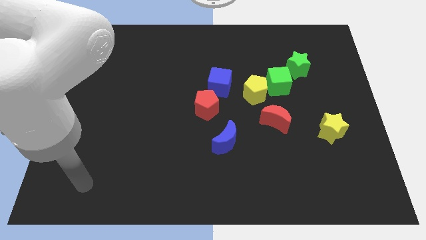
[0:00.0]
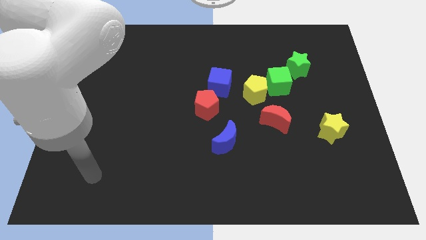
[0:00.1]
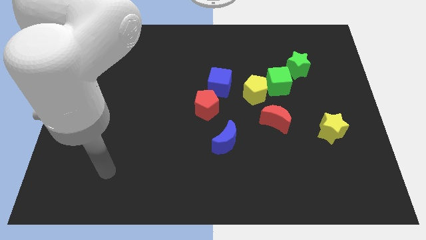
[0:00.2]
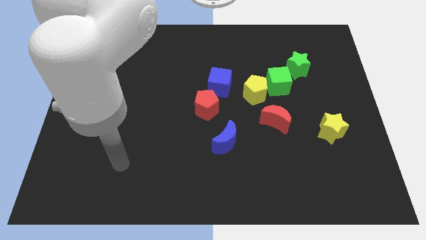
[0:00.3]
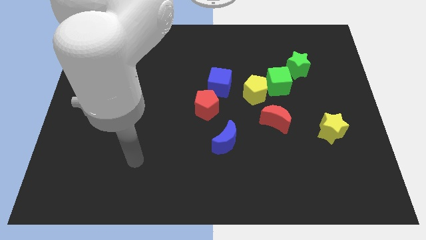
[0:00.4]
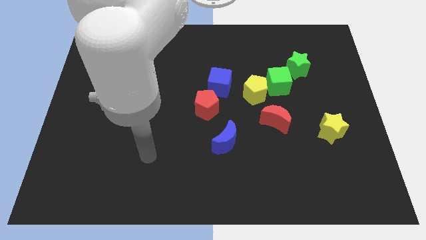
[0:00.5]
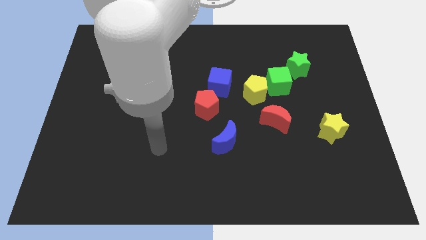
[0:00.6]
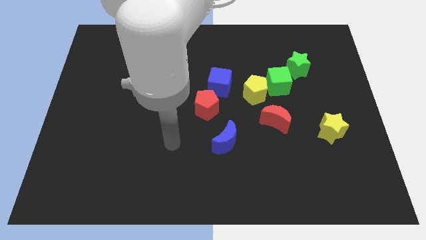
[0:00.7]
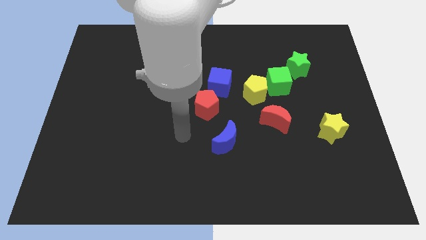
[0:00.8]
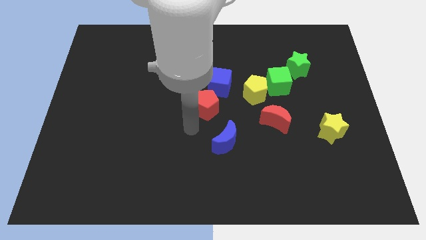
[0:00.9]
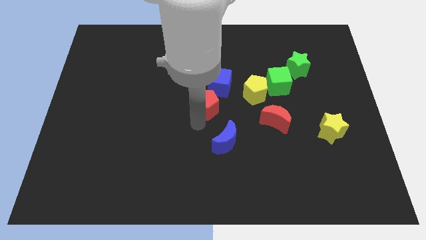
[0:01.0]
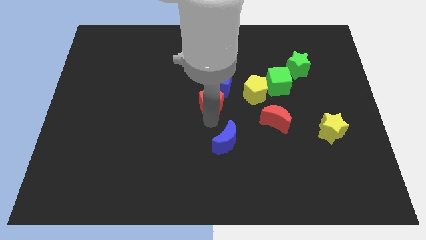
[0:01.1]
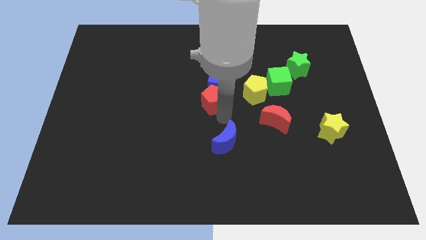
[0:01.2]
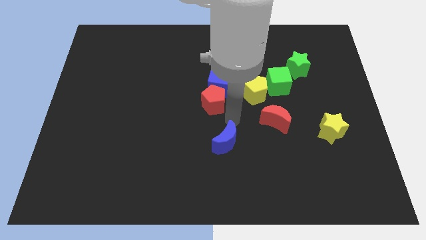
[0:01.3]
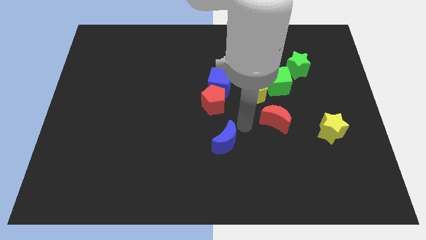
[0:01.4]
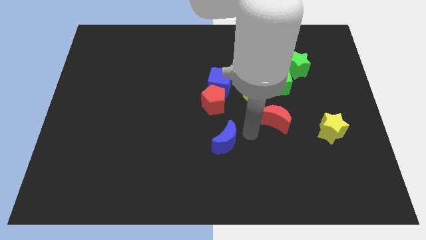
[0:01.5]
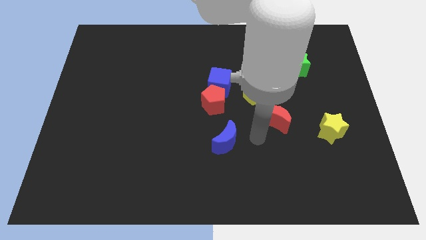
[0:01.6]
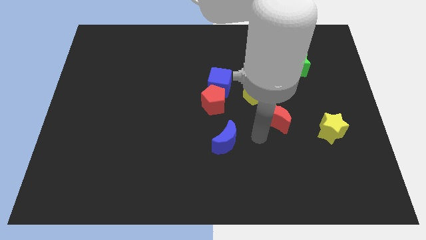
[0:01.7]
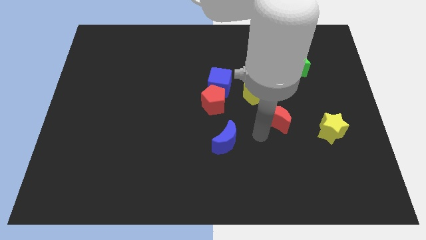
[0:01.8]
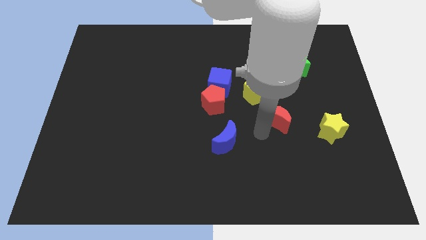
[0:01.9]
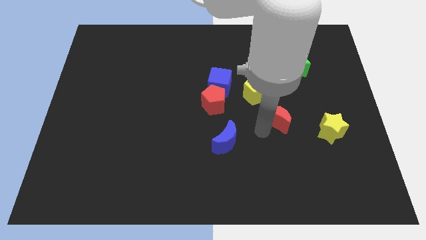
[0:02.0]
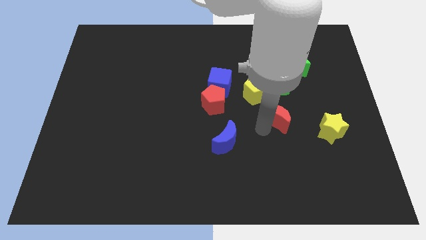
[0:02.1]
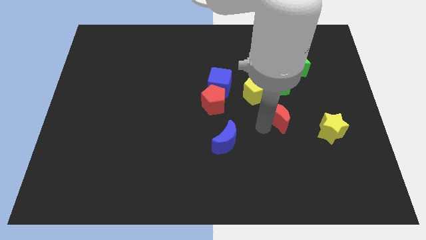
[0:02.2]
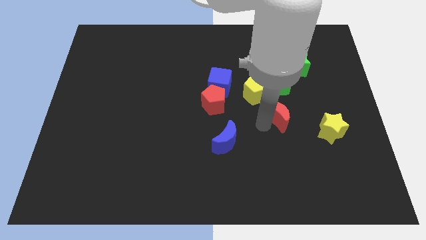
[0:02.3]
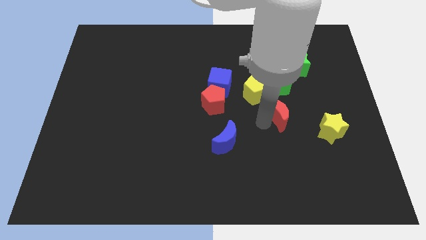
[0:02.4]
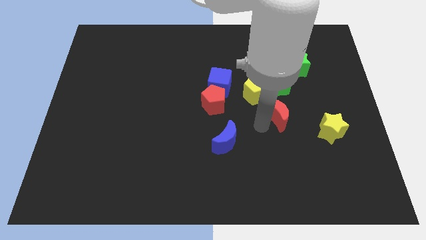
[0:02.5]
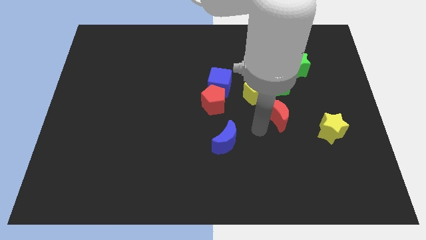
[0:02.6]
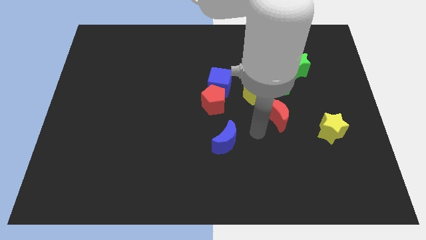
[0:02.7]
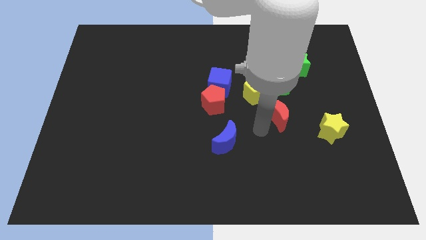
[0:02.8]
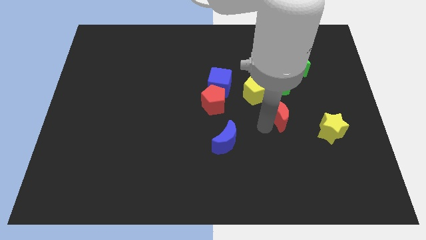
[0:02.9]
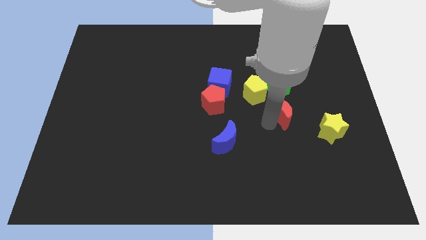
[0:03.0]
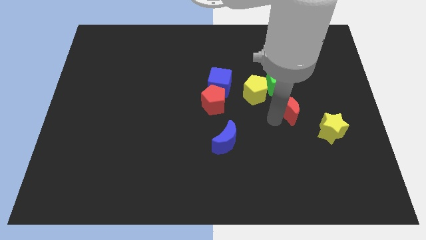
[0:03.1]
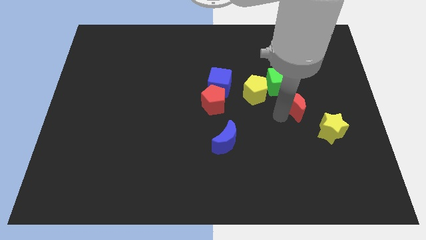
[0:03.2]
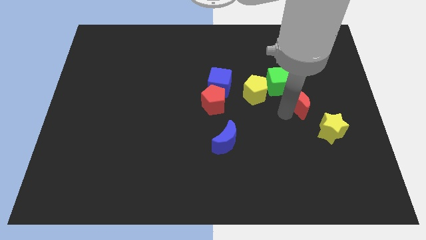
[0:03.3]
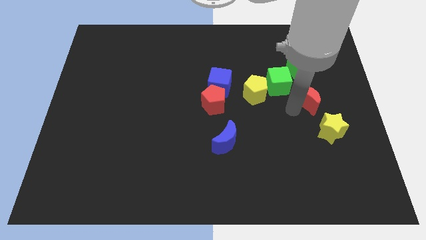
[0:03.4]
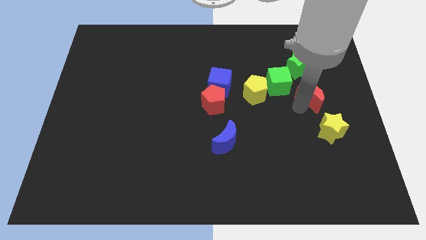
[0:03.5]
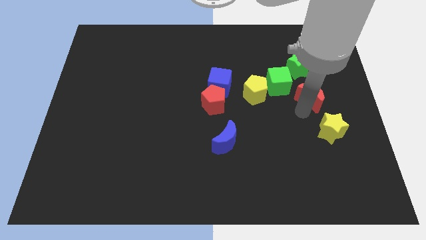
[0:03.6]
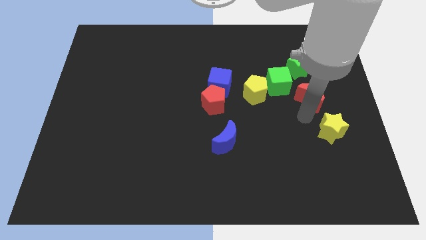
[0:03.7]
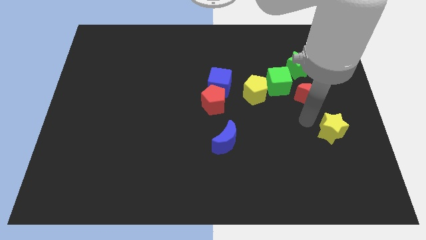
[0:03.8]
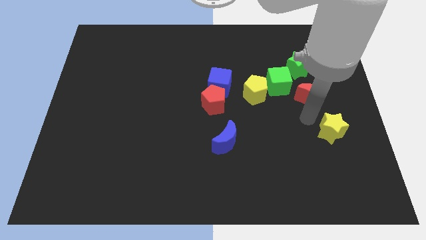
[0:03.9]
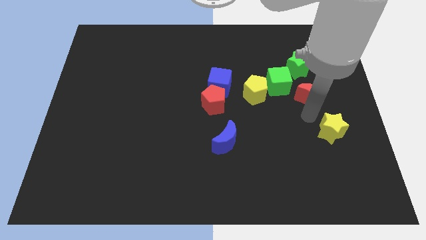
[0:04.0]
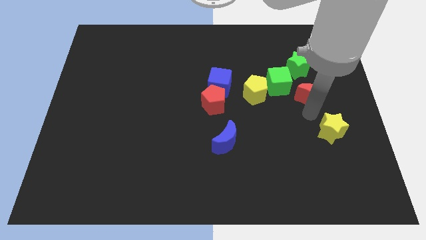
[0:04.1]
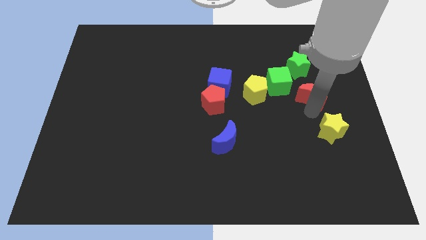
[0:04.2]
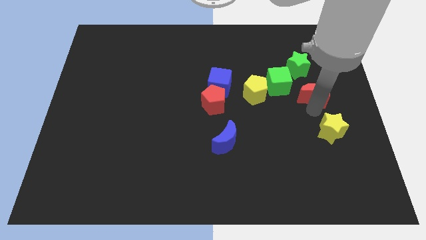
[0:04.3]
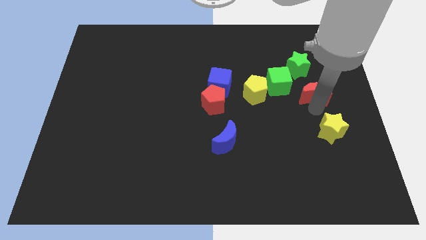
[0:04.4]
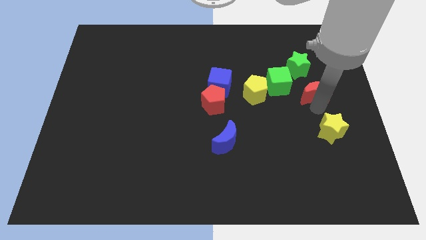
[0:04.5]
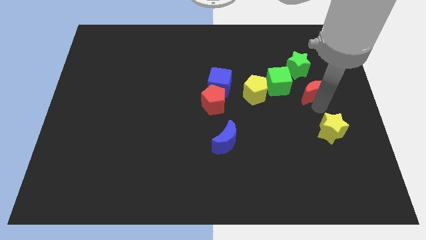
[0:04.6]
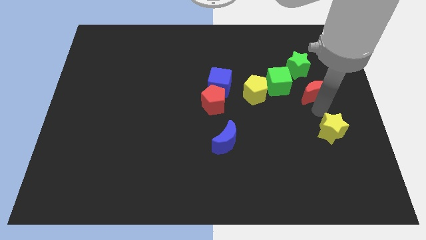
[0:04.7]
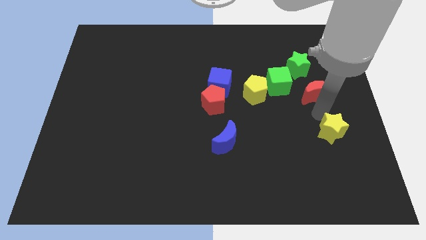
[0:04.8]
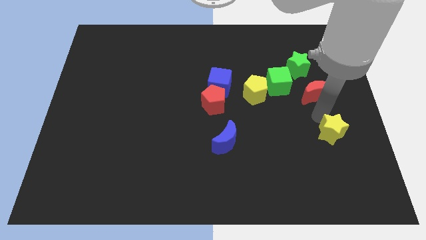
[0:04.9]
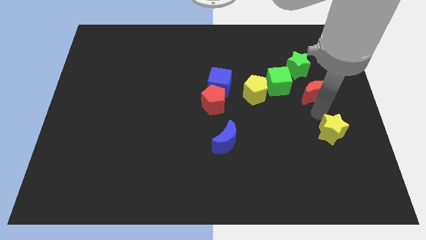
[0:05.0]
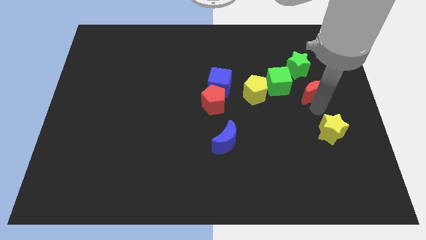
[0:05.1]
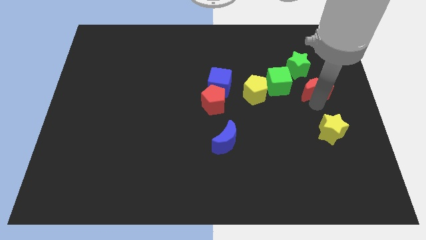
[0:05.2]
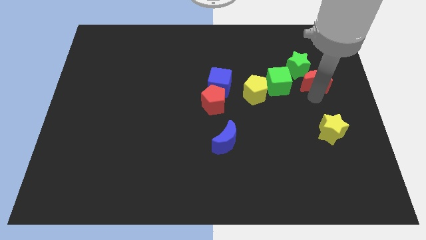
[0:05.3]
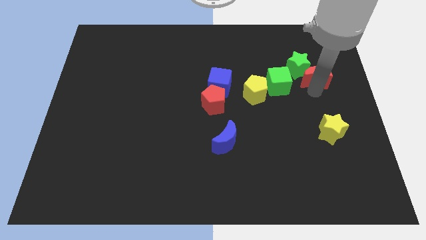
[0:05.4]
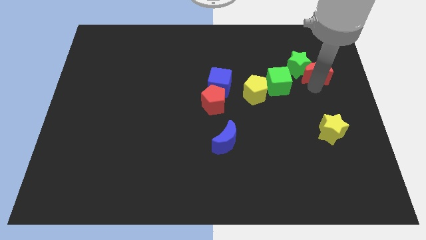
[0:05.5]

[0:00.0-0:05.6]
move the red moon slightly upwards

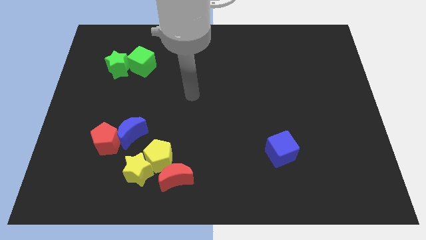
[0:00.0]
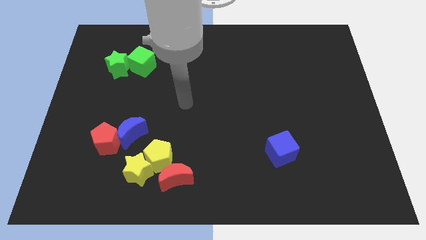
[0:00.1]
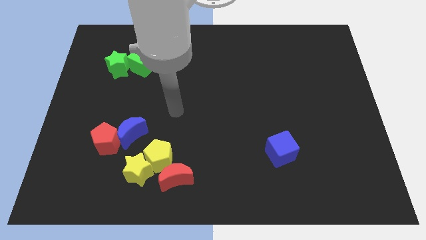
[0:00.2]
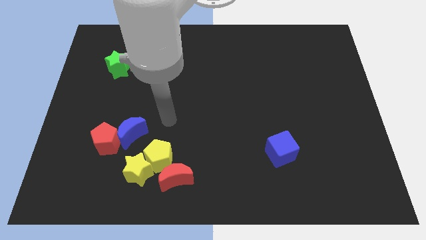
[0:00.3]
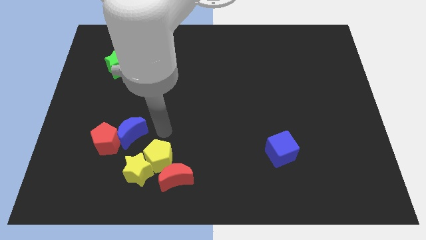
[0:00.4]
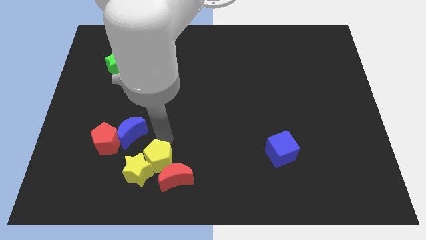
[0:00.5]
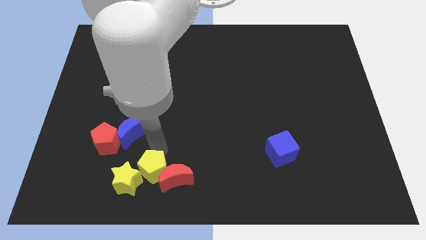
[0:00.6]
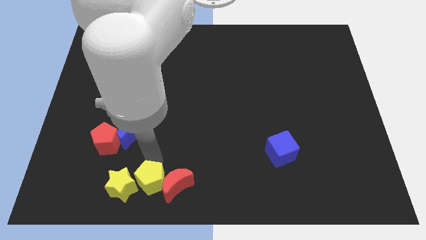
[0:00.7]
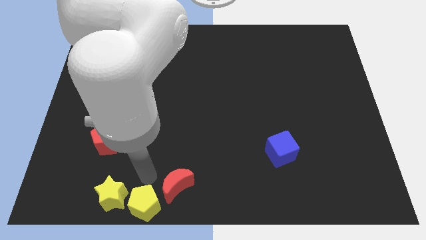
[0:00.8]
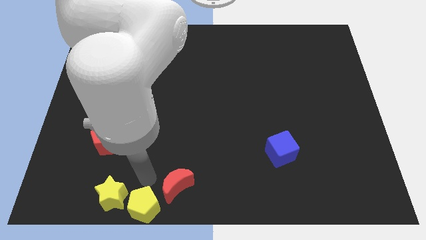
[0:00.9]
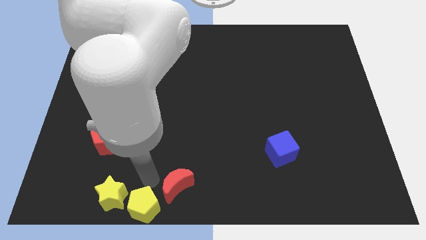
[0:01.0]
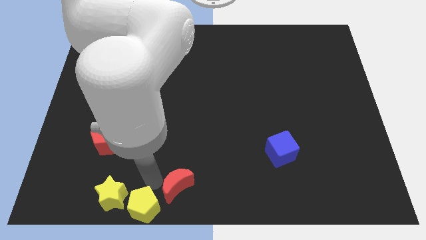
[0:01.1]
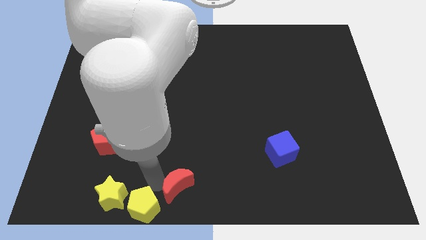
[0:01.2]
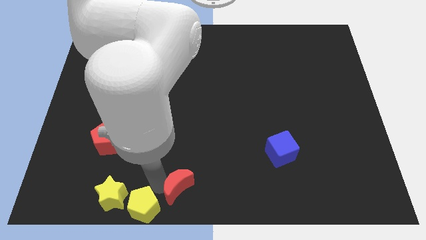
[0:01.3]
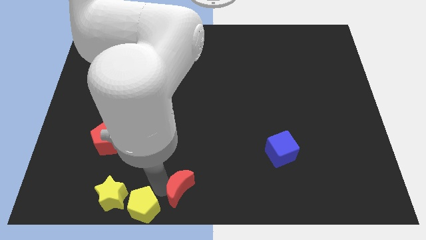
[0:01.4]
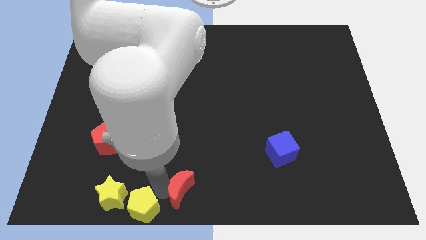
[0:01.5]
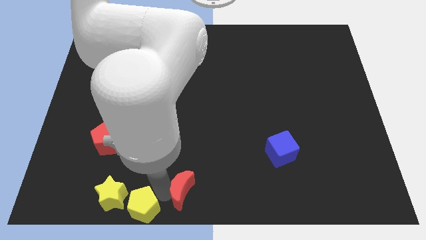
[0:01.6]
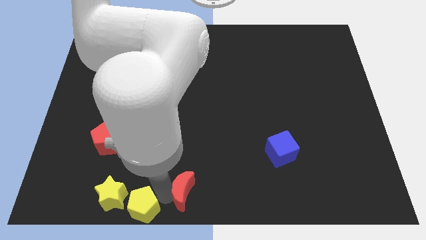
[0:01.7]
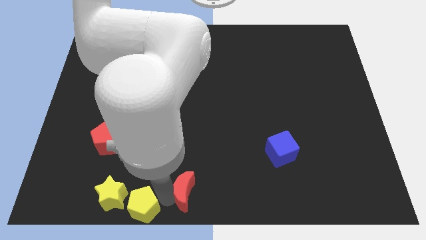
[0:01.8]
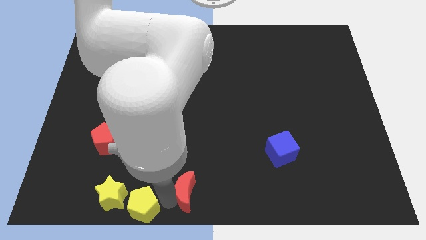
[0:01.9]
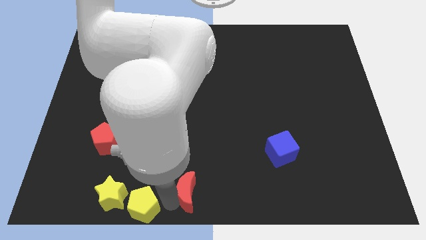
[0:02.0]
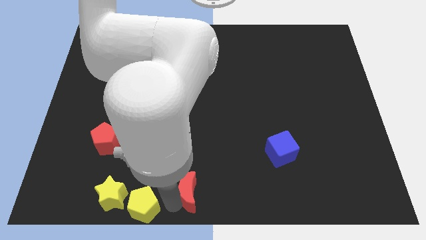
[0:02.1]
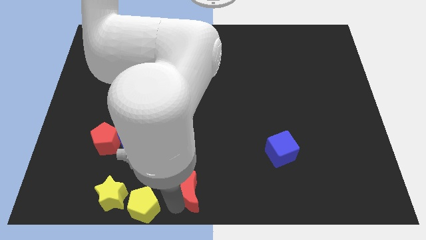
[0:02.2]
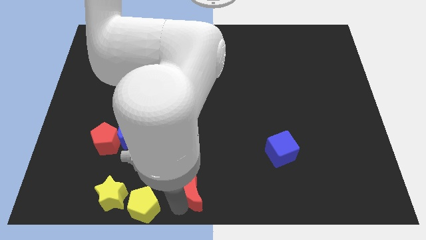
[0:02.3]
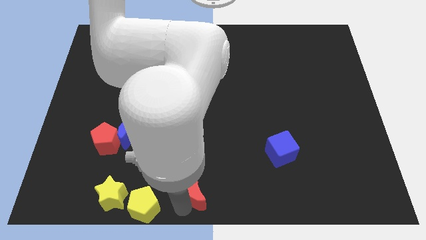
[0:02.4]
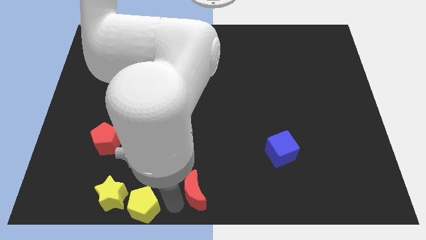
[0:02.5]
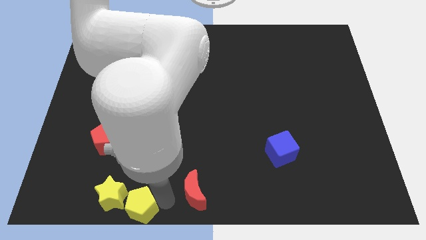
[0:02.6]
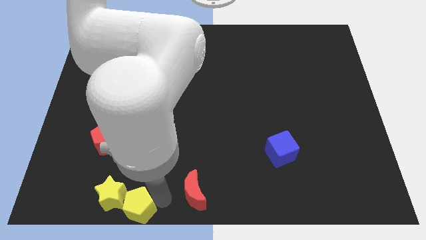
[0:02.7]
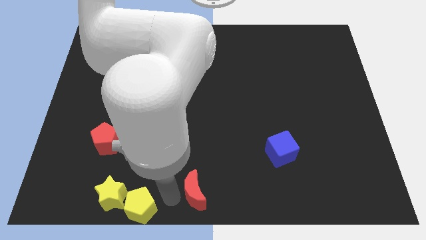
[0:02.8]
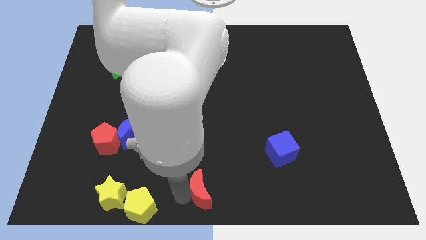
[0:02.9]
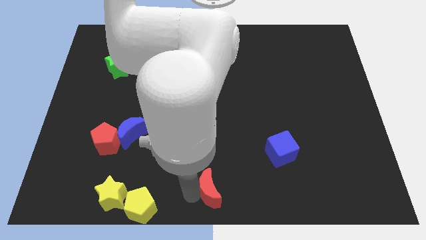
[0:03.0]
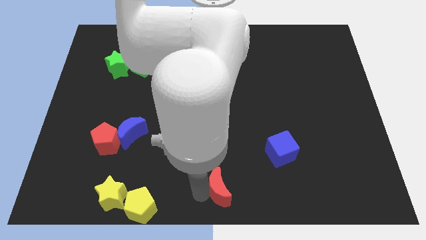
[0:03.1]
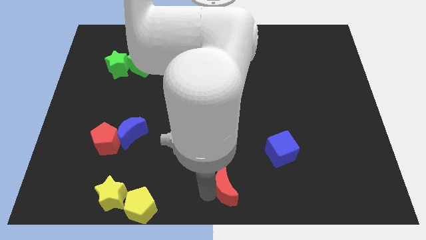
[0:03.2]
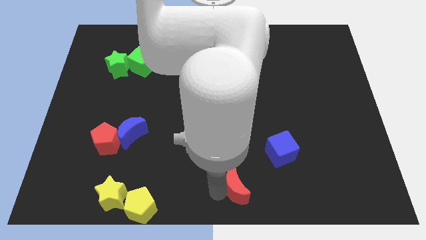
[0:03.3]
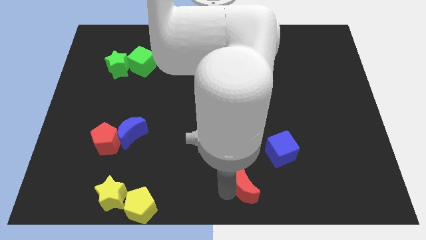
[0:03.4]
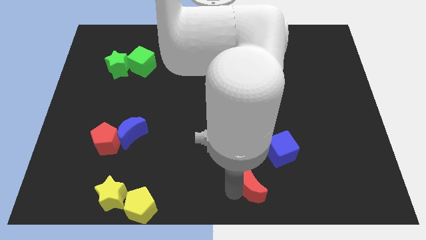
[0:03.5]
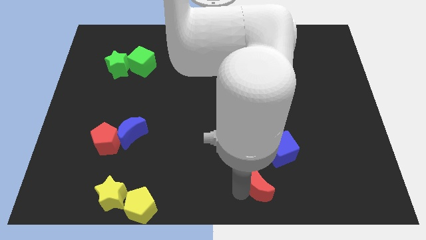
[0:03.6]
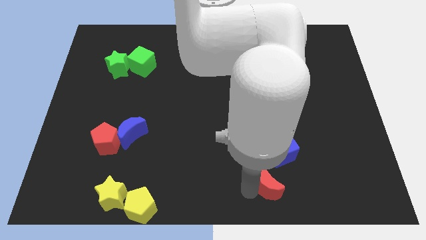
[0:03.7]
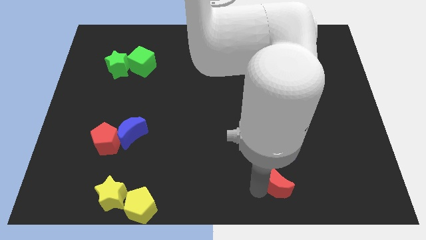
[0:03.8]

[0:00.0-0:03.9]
push the red moon right
